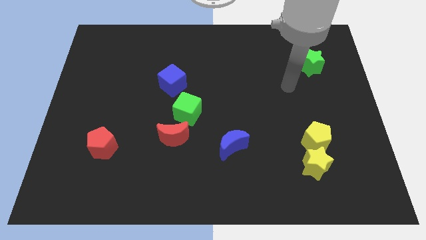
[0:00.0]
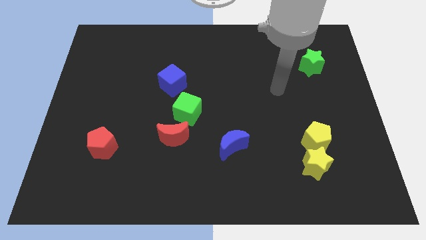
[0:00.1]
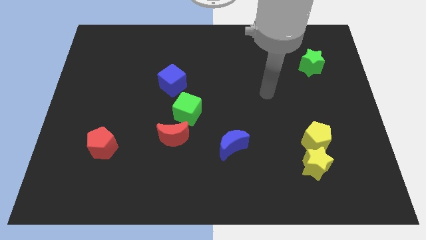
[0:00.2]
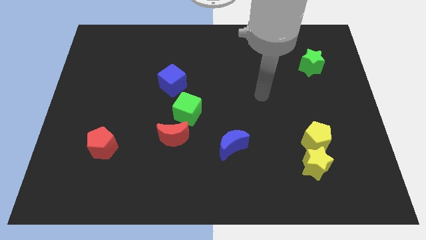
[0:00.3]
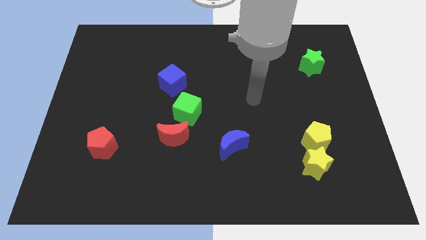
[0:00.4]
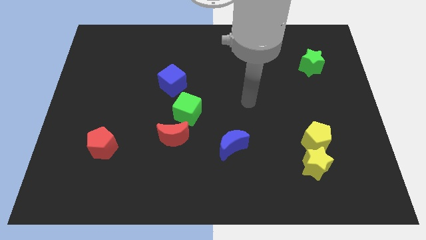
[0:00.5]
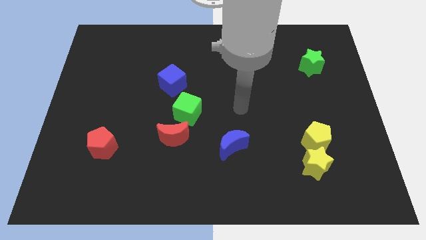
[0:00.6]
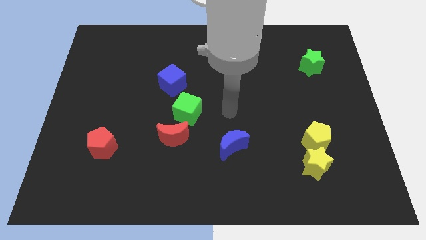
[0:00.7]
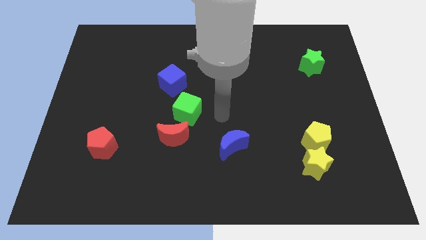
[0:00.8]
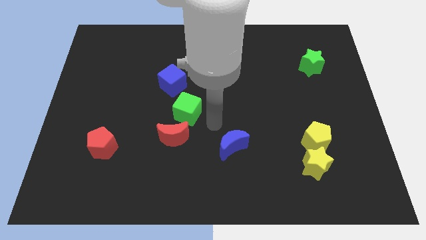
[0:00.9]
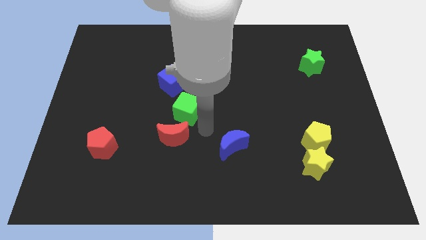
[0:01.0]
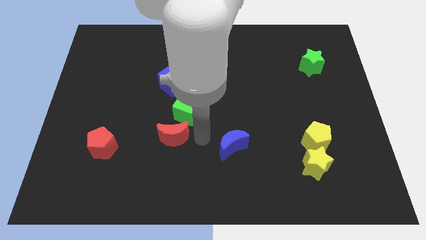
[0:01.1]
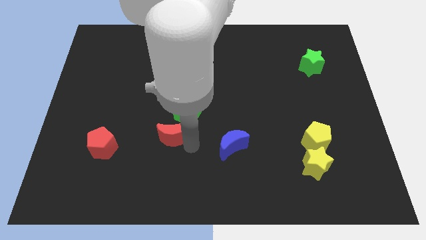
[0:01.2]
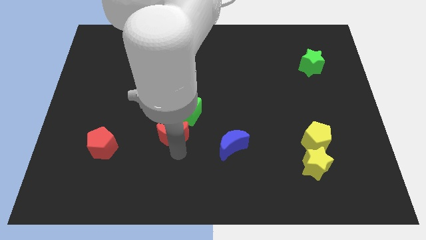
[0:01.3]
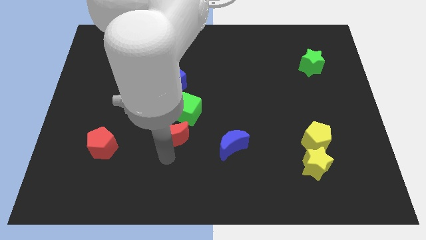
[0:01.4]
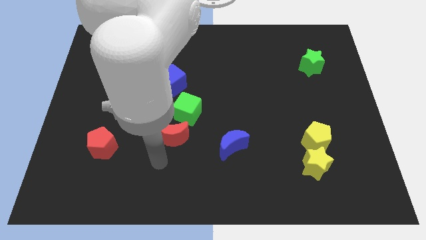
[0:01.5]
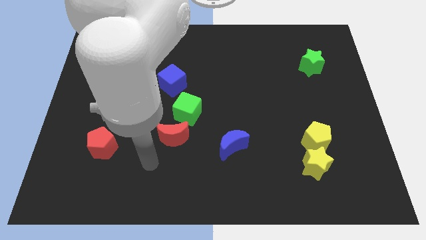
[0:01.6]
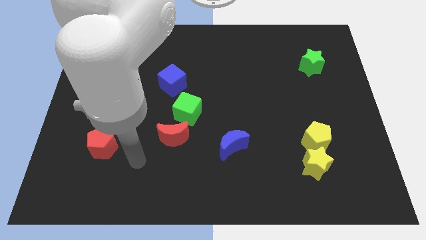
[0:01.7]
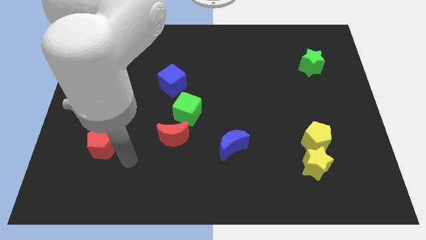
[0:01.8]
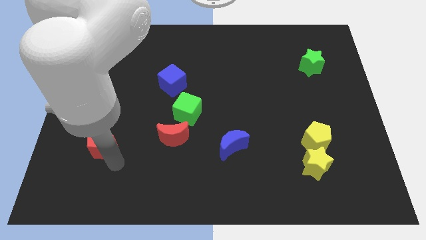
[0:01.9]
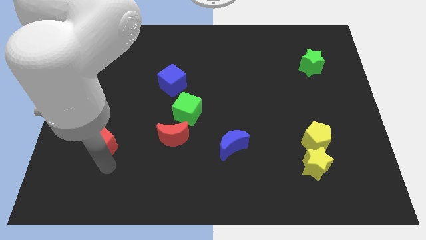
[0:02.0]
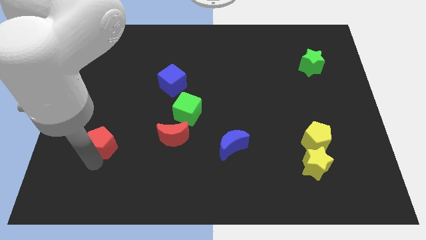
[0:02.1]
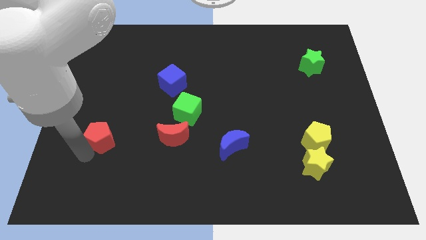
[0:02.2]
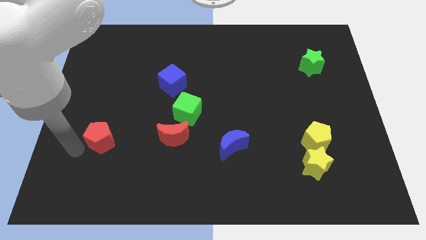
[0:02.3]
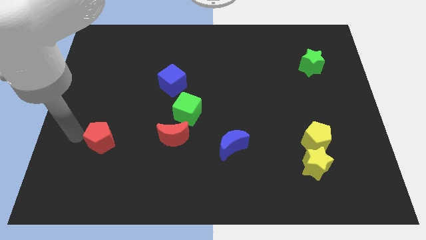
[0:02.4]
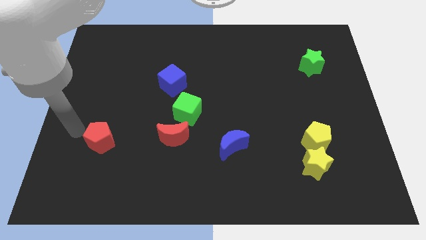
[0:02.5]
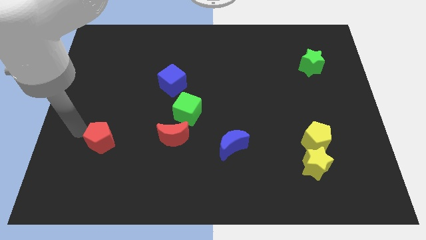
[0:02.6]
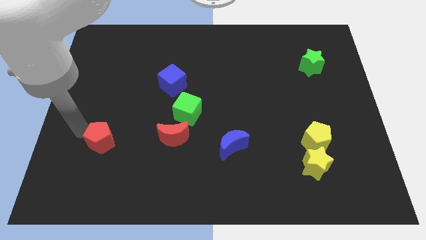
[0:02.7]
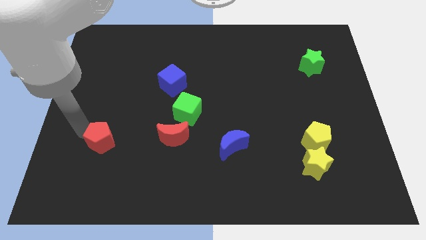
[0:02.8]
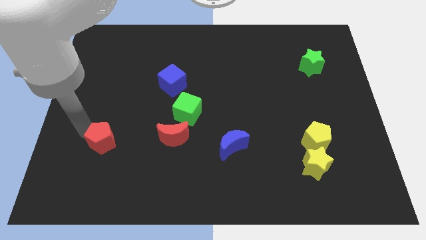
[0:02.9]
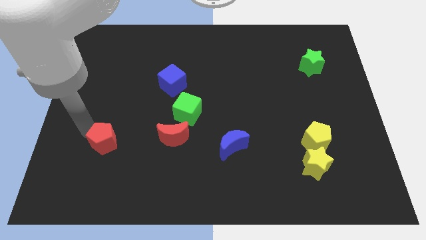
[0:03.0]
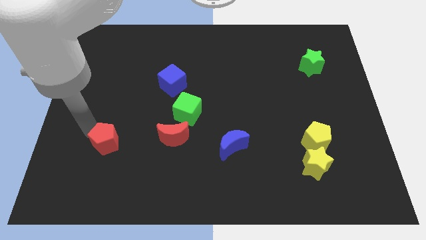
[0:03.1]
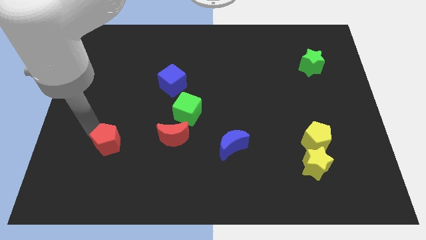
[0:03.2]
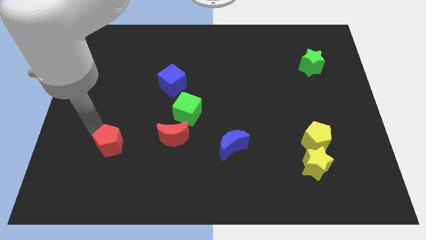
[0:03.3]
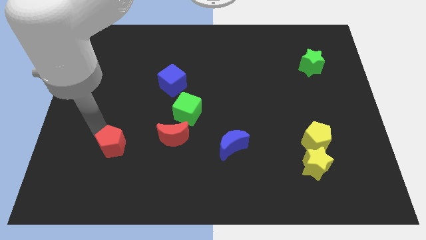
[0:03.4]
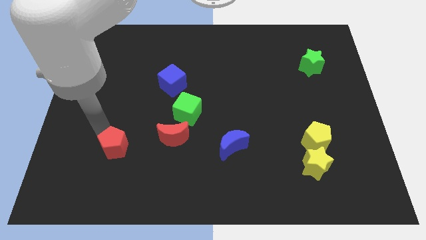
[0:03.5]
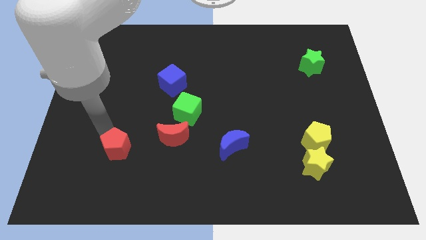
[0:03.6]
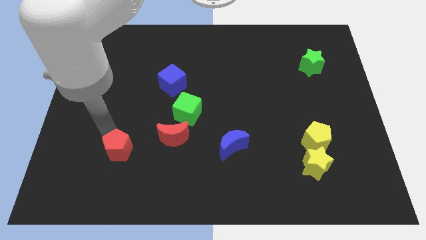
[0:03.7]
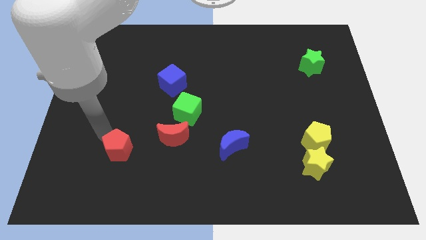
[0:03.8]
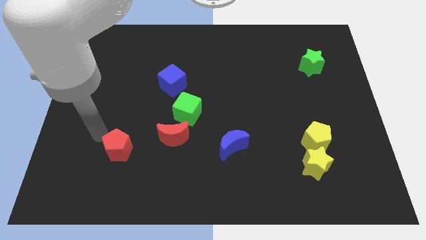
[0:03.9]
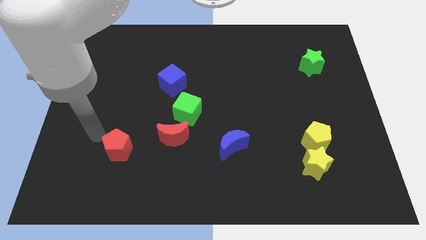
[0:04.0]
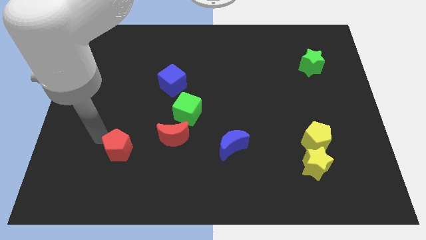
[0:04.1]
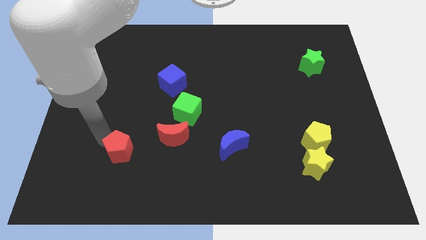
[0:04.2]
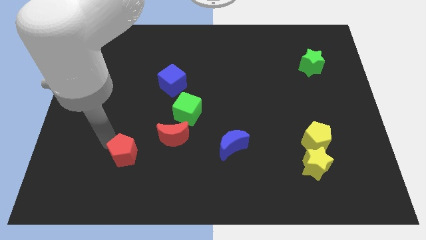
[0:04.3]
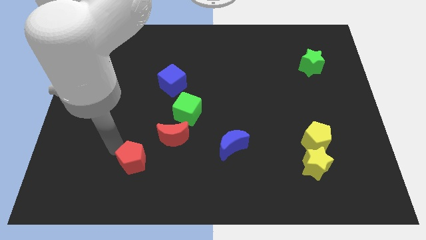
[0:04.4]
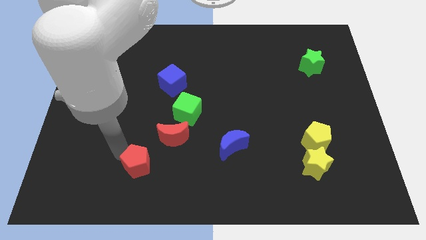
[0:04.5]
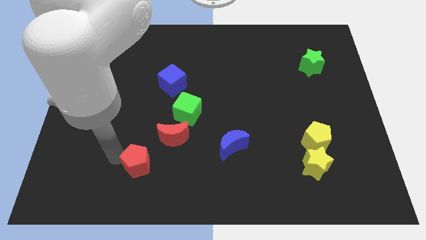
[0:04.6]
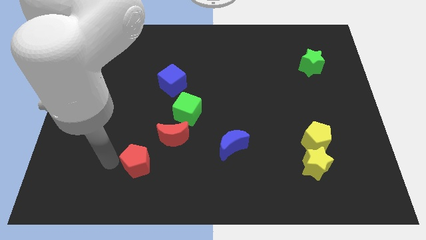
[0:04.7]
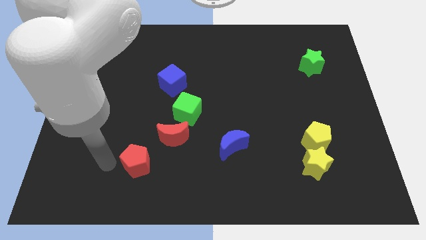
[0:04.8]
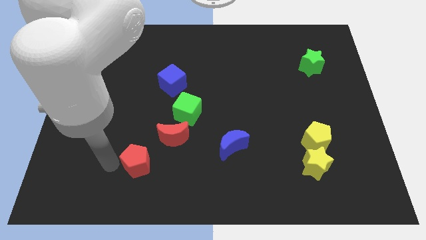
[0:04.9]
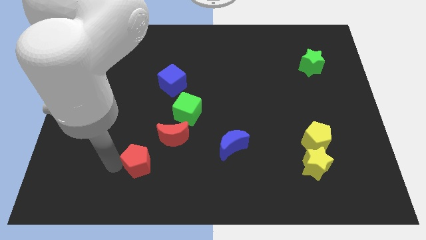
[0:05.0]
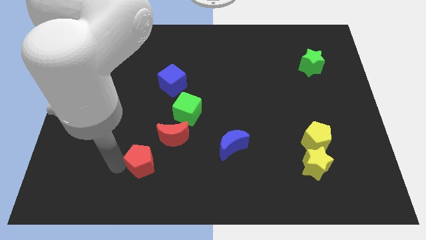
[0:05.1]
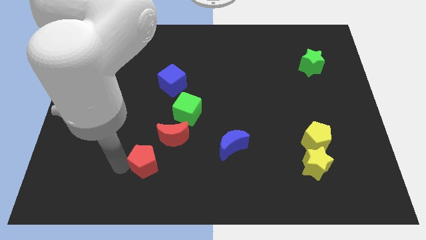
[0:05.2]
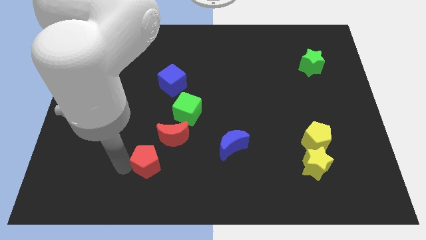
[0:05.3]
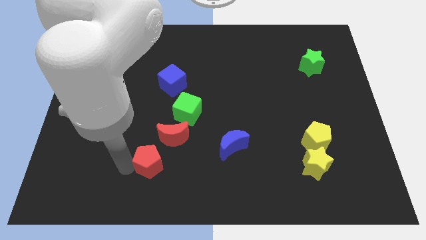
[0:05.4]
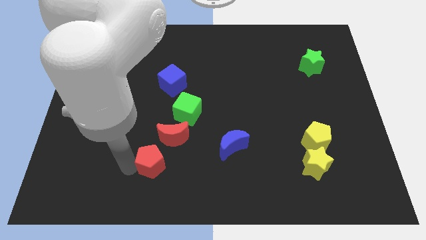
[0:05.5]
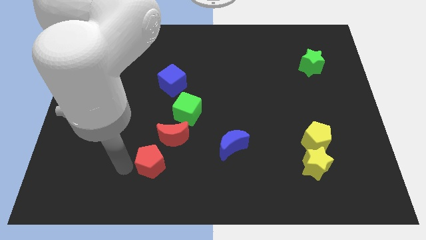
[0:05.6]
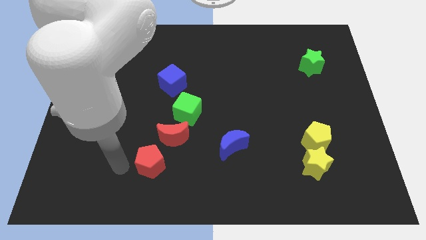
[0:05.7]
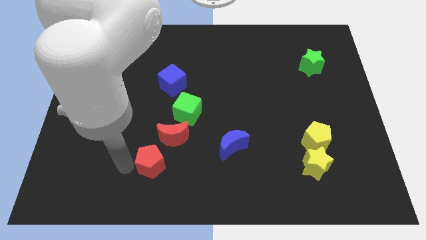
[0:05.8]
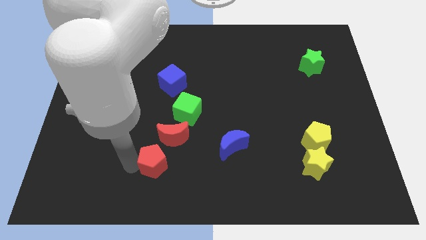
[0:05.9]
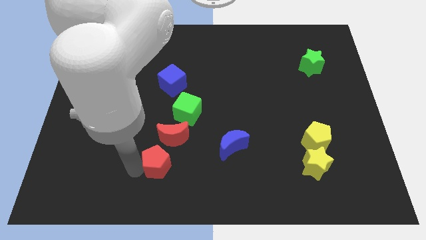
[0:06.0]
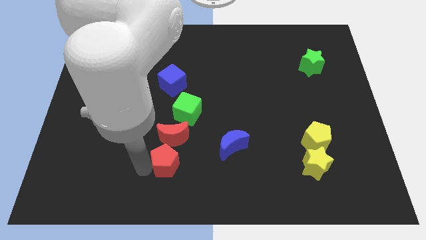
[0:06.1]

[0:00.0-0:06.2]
slide the red pentagon to the bottom of the green cube
